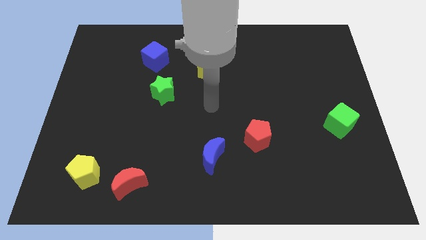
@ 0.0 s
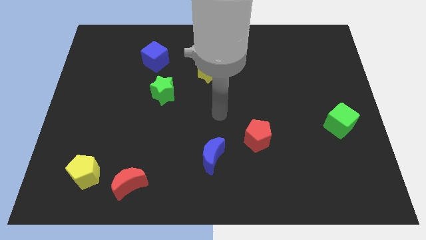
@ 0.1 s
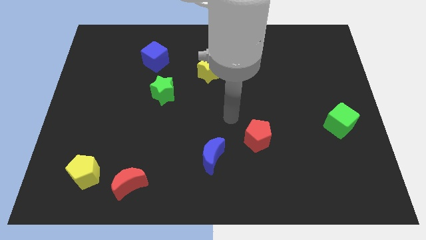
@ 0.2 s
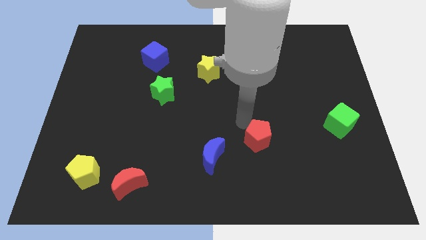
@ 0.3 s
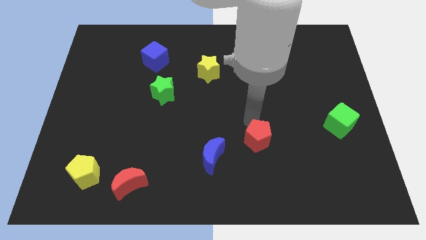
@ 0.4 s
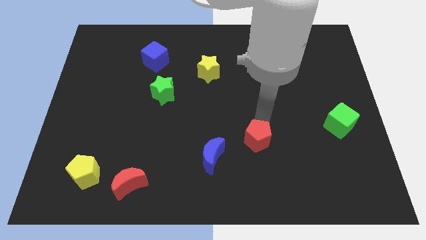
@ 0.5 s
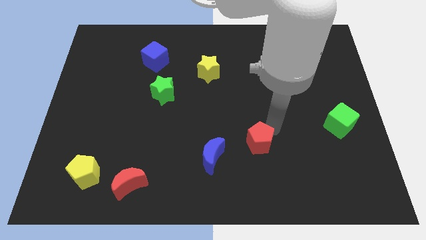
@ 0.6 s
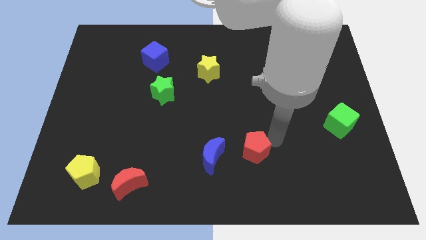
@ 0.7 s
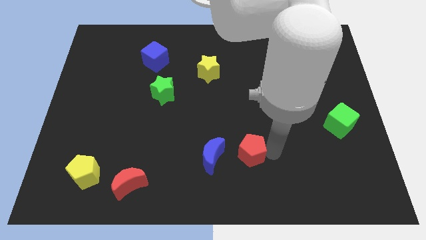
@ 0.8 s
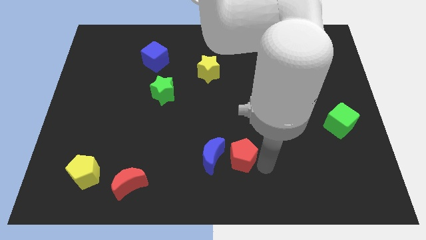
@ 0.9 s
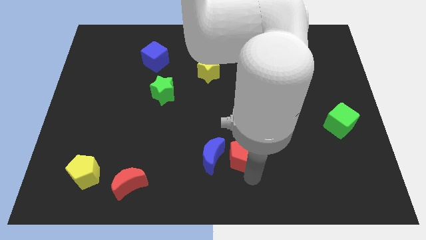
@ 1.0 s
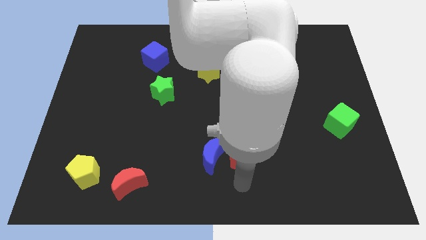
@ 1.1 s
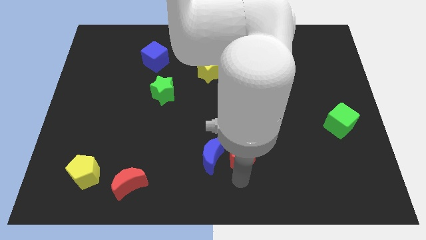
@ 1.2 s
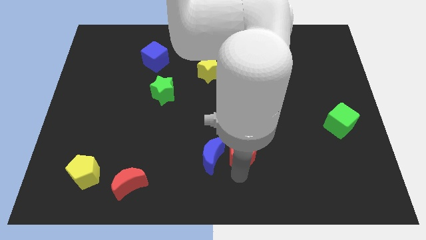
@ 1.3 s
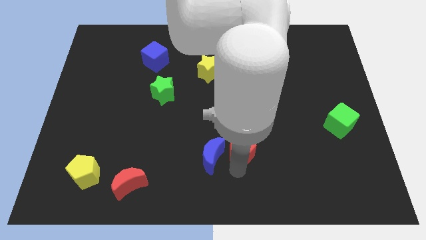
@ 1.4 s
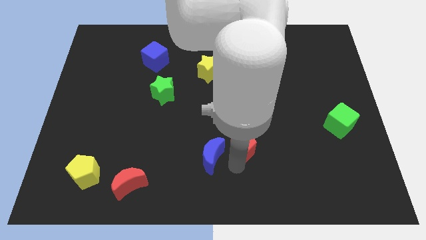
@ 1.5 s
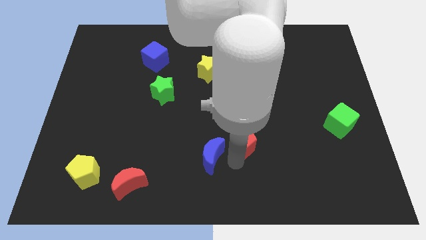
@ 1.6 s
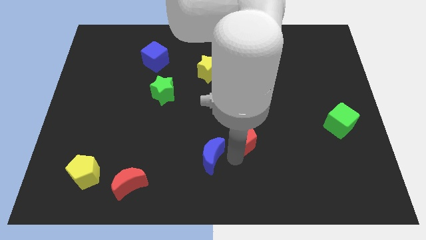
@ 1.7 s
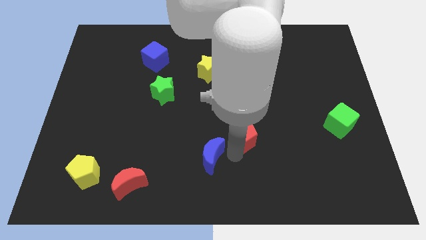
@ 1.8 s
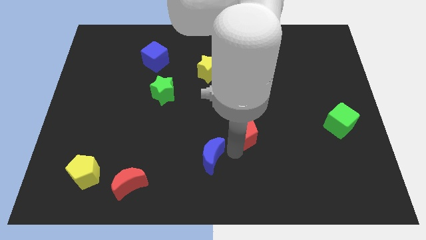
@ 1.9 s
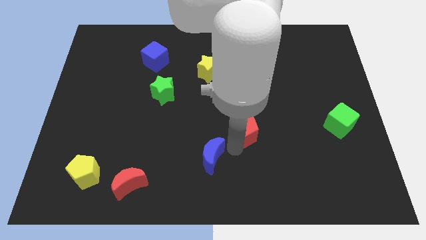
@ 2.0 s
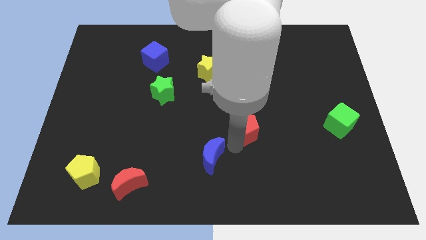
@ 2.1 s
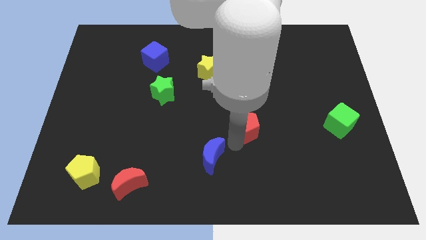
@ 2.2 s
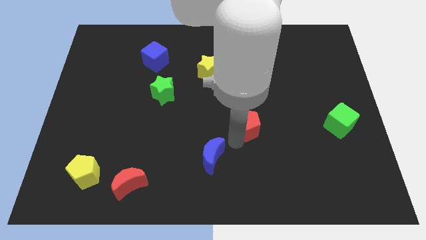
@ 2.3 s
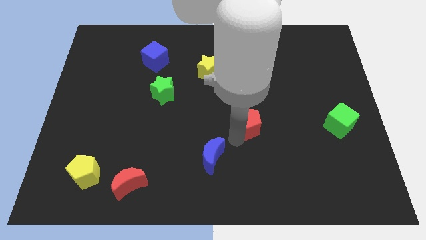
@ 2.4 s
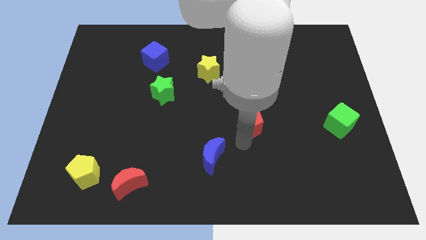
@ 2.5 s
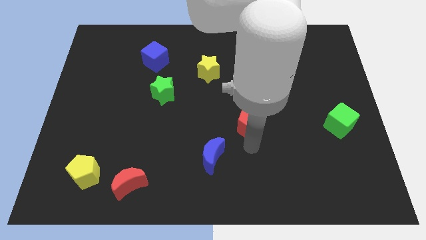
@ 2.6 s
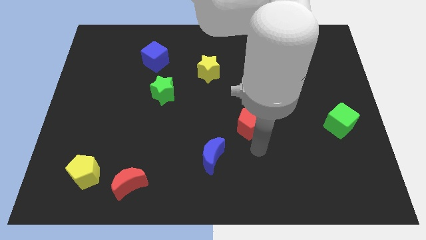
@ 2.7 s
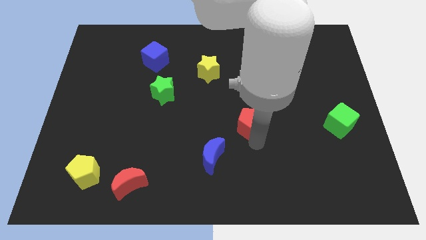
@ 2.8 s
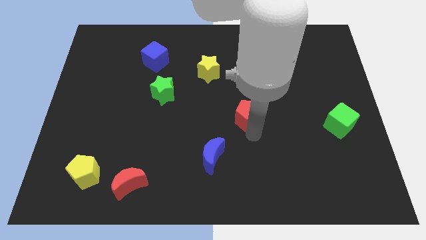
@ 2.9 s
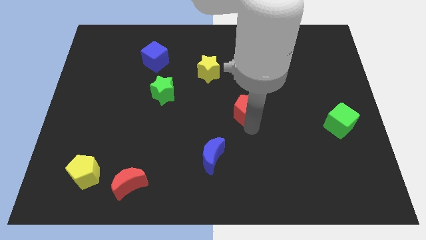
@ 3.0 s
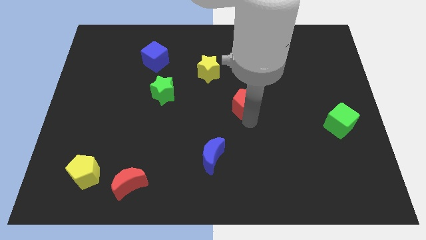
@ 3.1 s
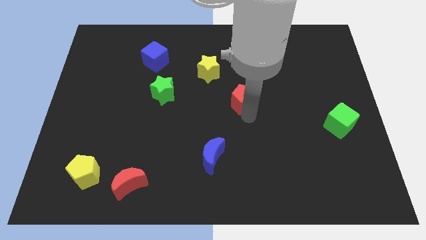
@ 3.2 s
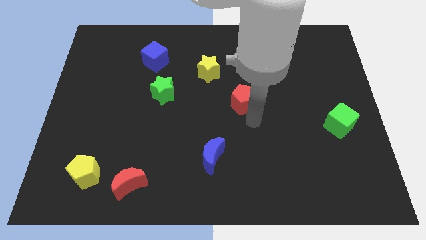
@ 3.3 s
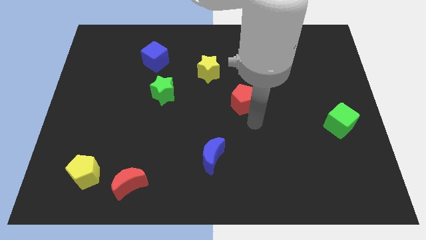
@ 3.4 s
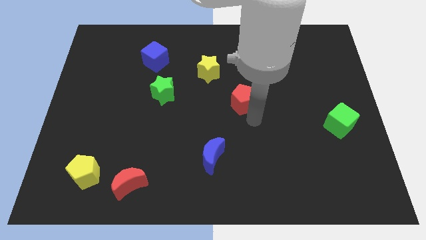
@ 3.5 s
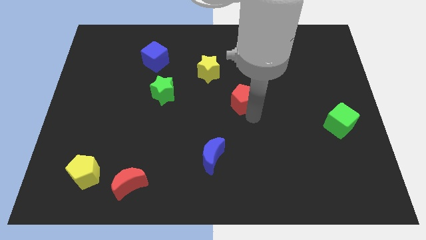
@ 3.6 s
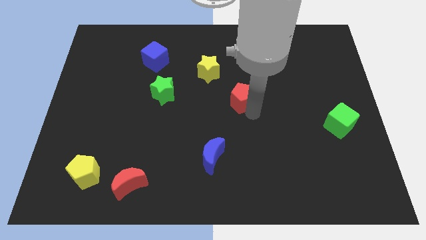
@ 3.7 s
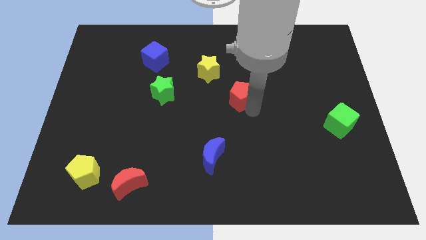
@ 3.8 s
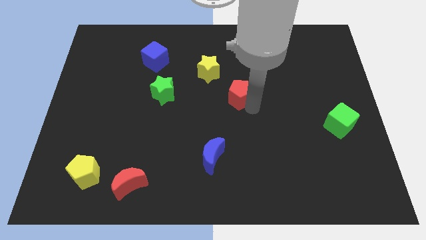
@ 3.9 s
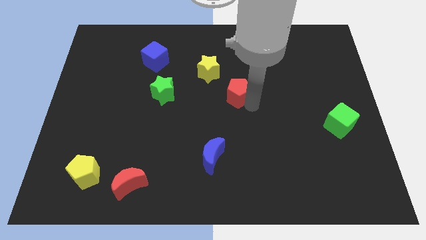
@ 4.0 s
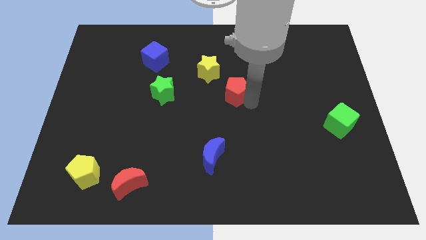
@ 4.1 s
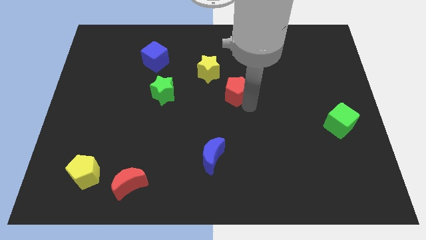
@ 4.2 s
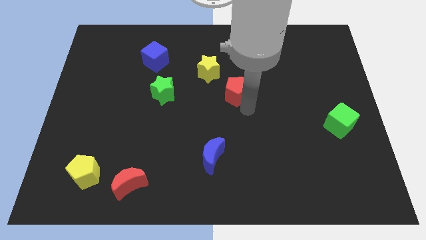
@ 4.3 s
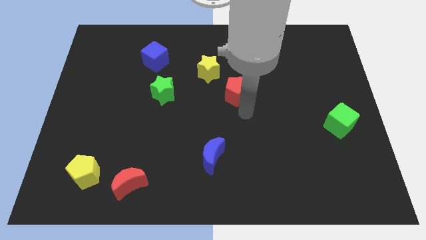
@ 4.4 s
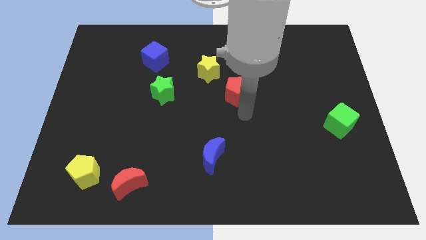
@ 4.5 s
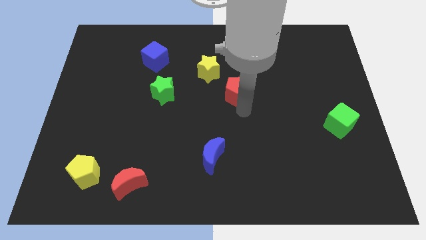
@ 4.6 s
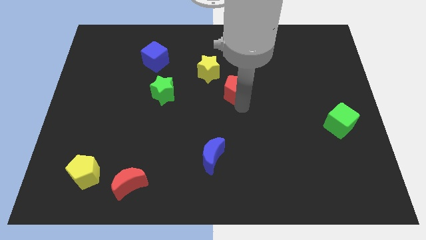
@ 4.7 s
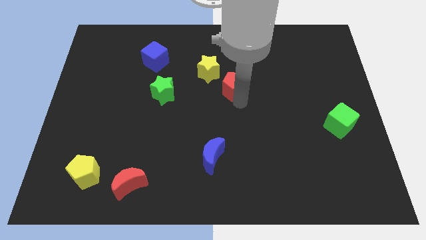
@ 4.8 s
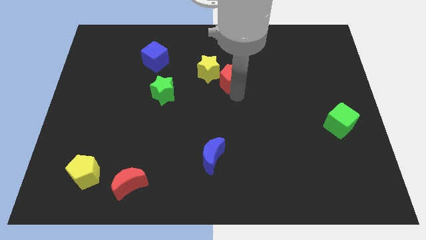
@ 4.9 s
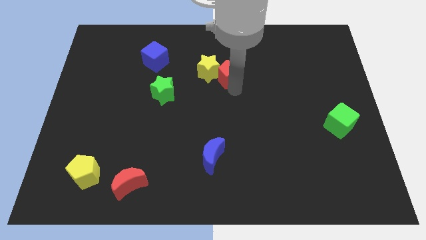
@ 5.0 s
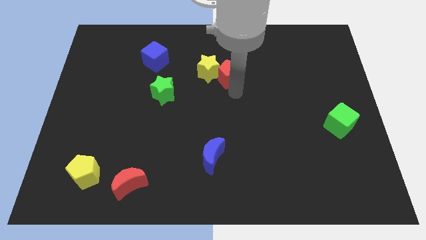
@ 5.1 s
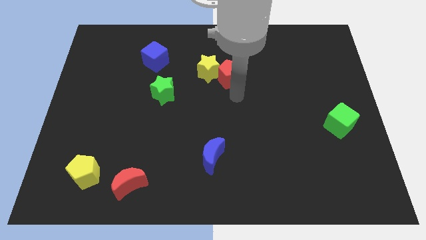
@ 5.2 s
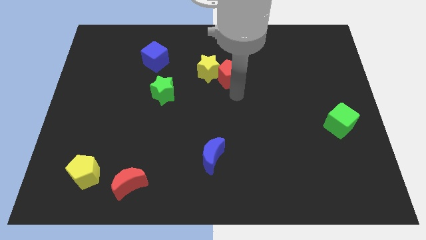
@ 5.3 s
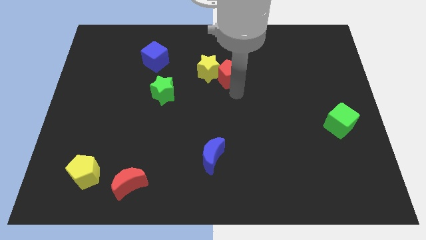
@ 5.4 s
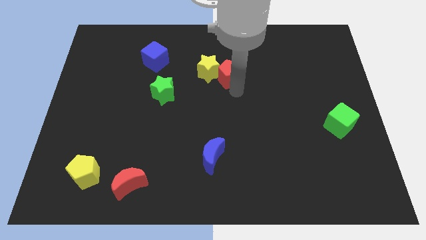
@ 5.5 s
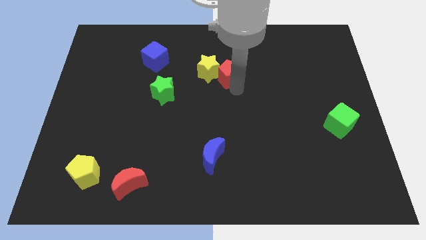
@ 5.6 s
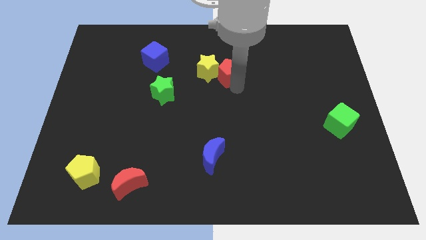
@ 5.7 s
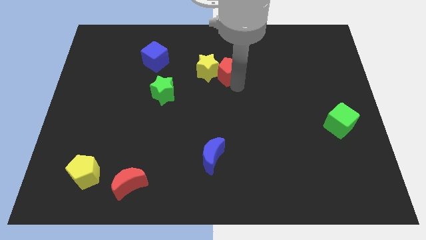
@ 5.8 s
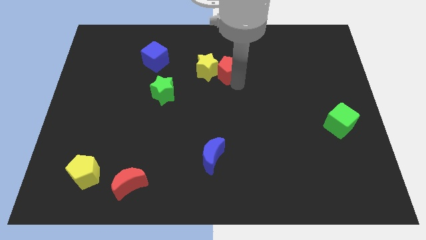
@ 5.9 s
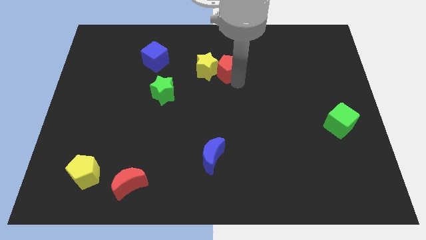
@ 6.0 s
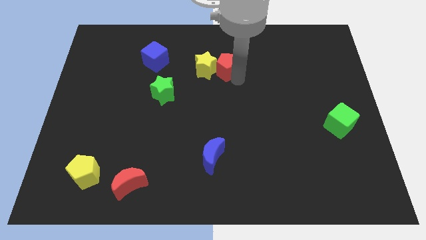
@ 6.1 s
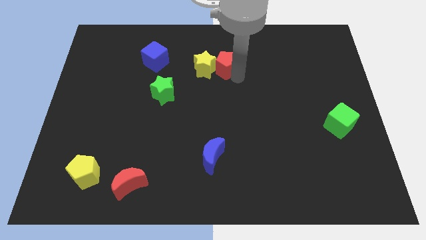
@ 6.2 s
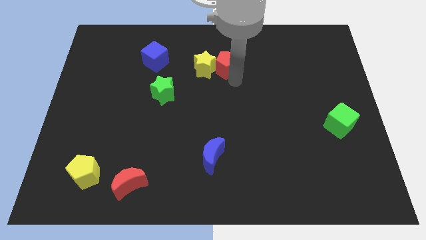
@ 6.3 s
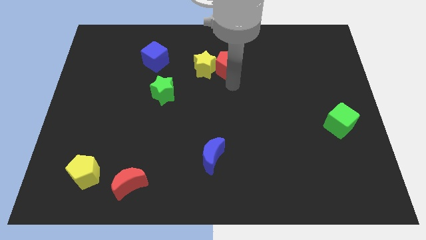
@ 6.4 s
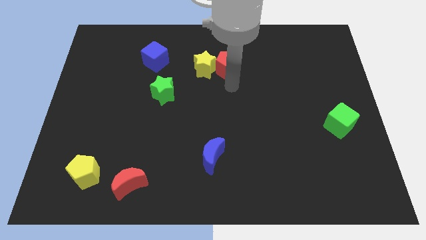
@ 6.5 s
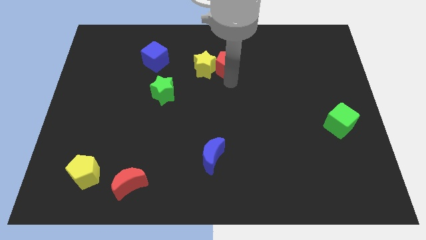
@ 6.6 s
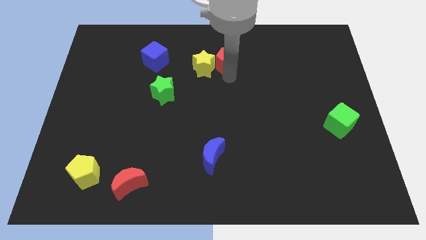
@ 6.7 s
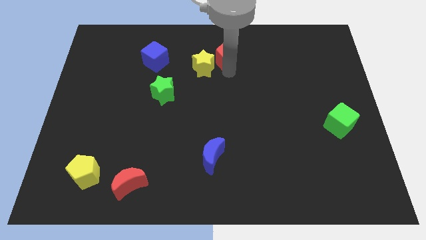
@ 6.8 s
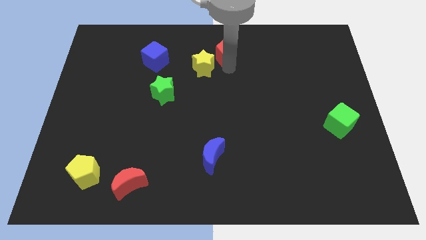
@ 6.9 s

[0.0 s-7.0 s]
slide the red pentagon to the top
